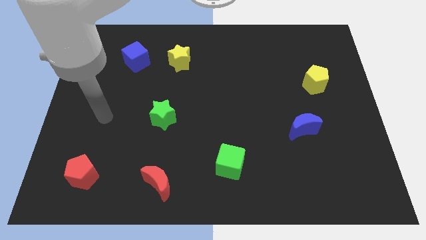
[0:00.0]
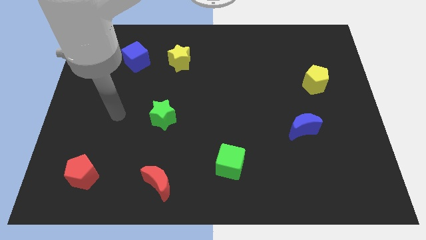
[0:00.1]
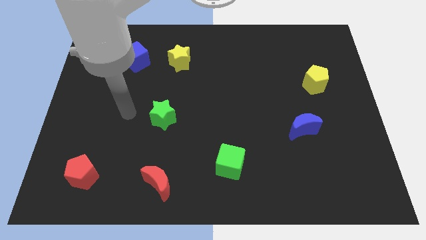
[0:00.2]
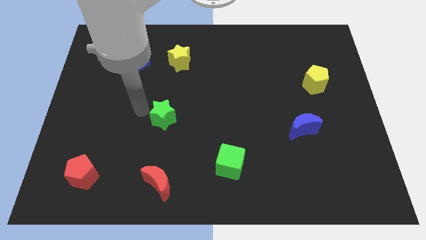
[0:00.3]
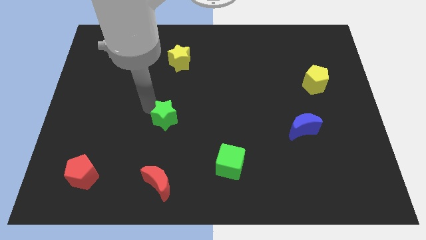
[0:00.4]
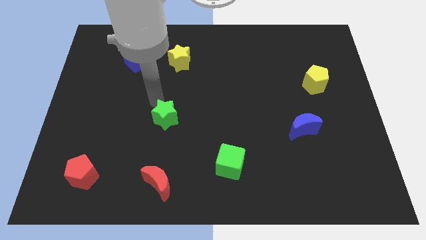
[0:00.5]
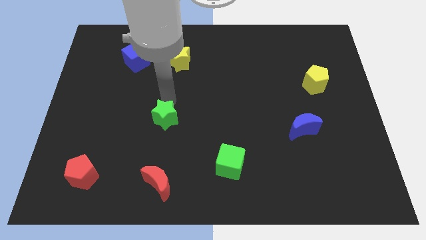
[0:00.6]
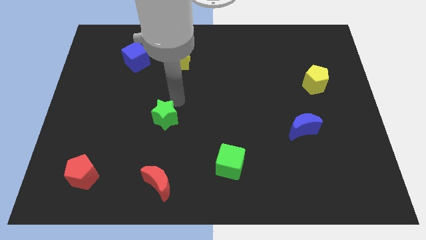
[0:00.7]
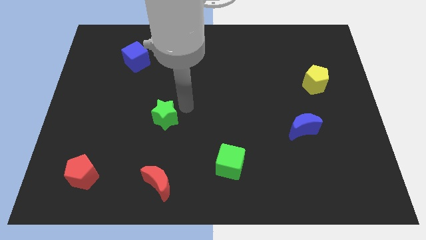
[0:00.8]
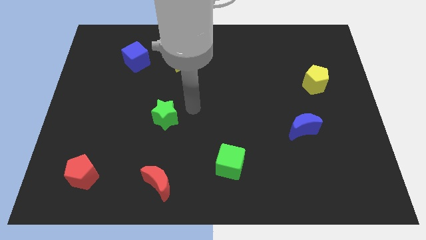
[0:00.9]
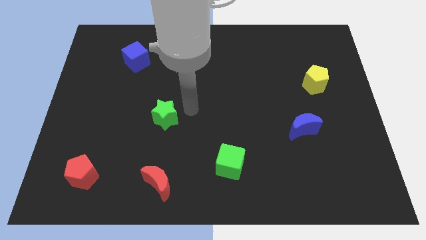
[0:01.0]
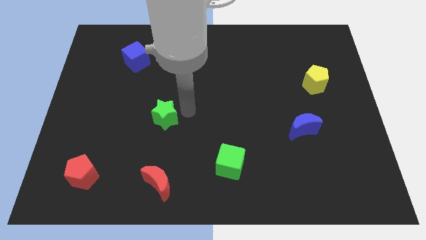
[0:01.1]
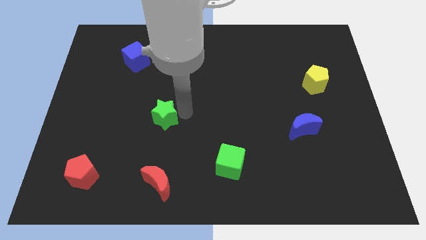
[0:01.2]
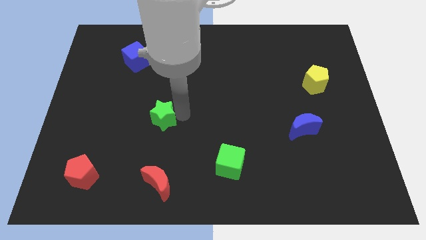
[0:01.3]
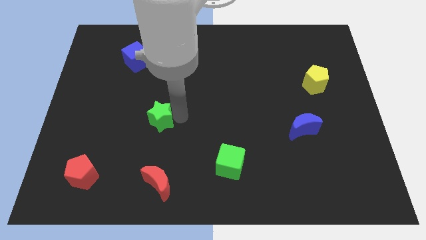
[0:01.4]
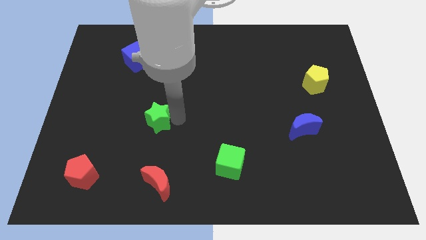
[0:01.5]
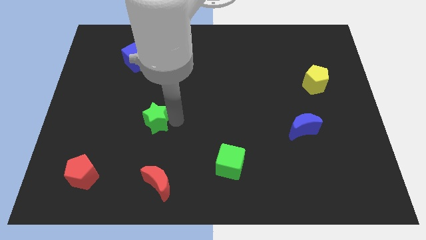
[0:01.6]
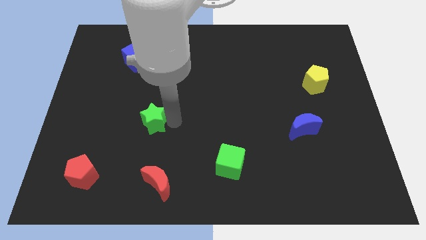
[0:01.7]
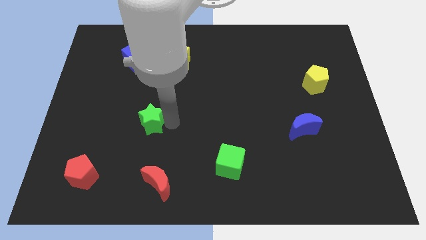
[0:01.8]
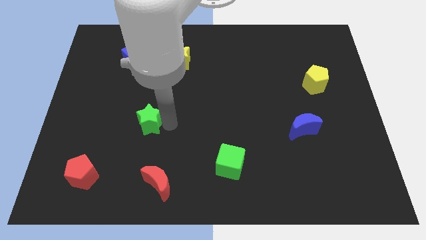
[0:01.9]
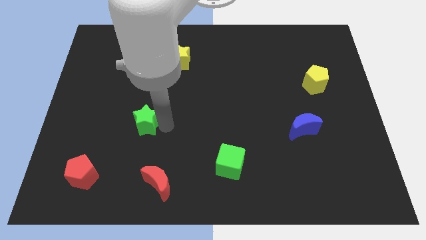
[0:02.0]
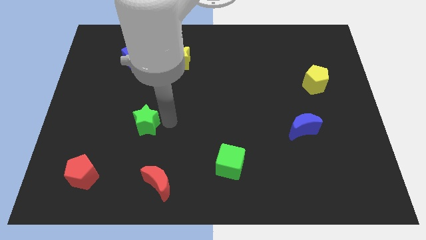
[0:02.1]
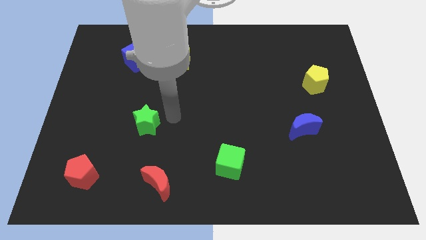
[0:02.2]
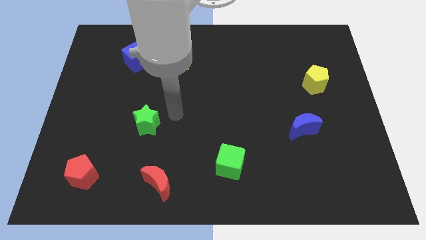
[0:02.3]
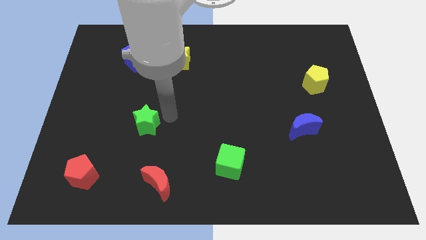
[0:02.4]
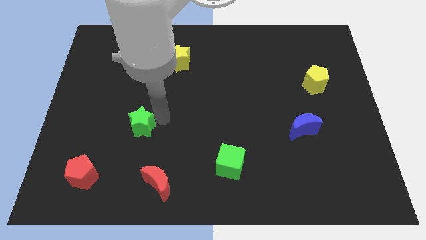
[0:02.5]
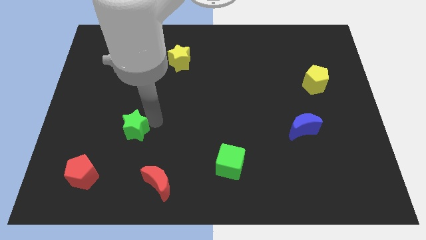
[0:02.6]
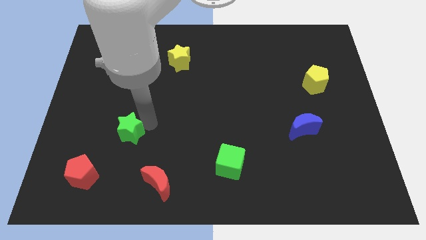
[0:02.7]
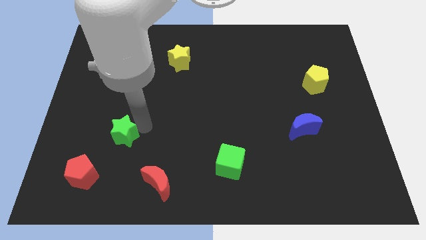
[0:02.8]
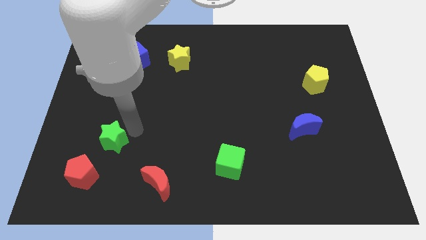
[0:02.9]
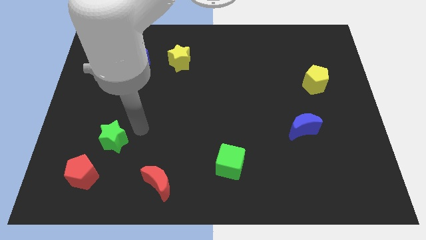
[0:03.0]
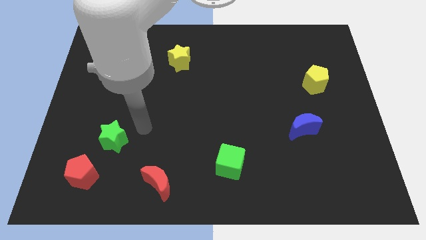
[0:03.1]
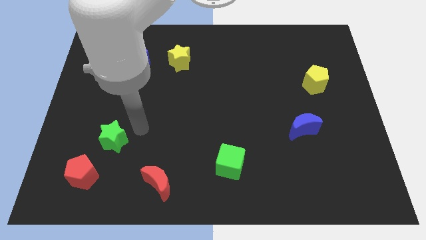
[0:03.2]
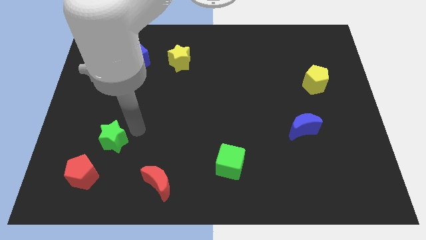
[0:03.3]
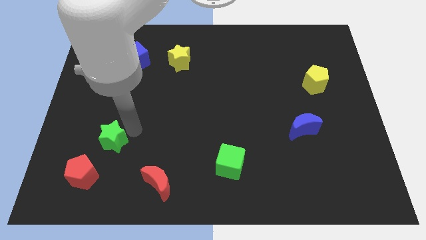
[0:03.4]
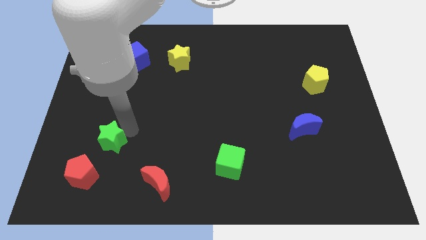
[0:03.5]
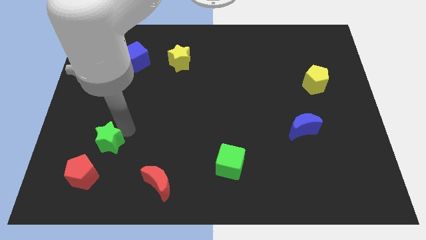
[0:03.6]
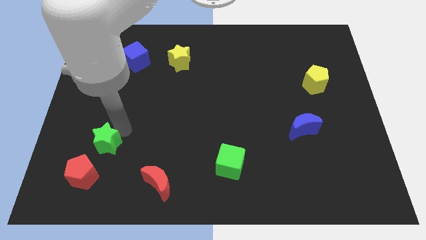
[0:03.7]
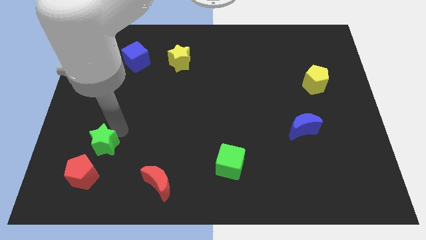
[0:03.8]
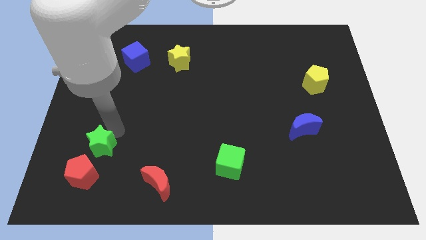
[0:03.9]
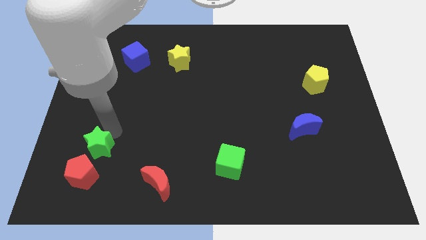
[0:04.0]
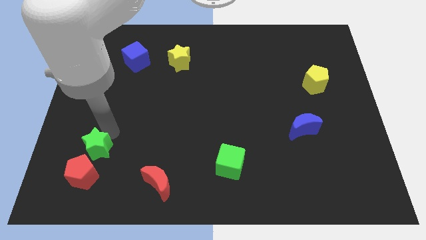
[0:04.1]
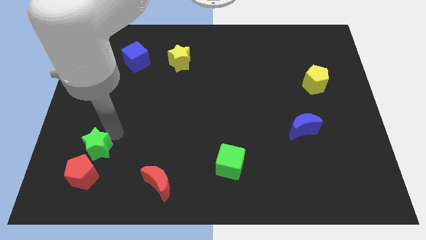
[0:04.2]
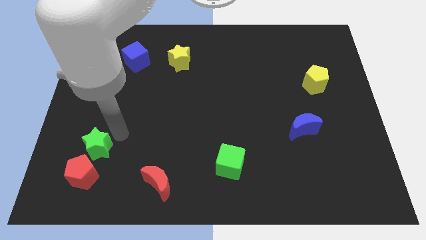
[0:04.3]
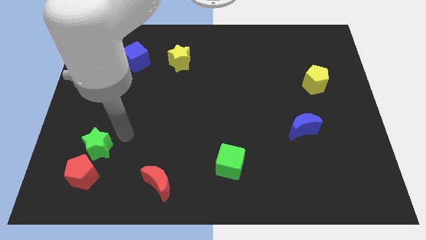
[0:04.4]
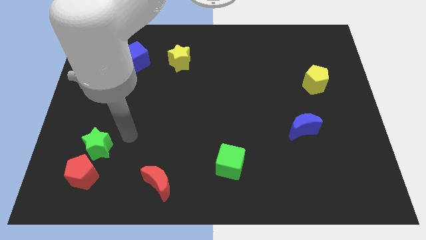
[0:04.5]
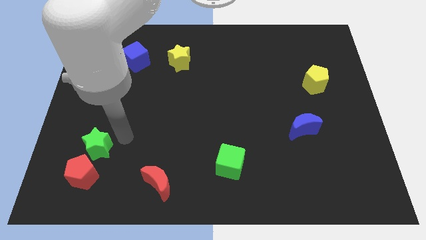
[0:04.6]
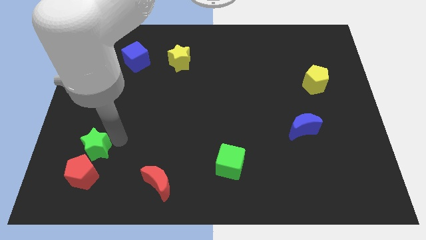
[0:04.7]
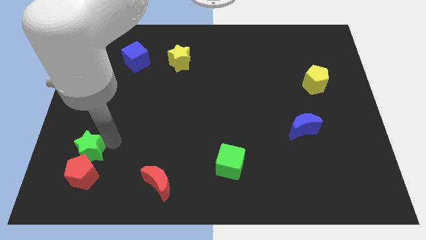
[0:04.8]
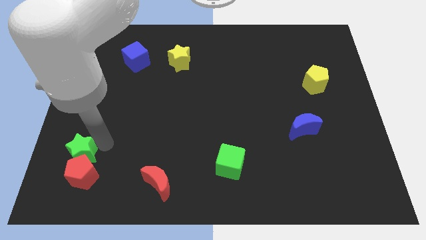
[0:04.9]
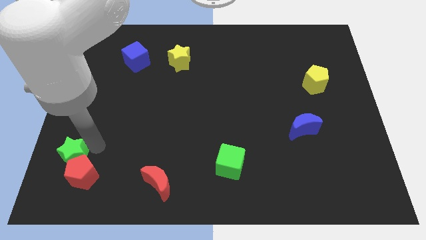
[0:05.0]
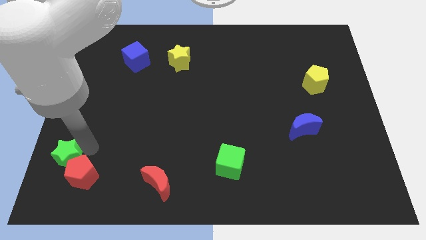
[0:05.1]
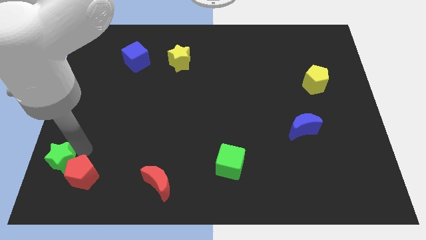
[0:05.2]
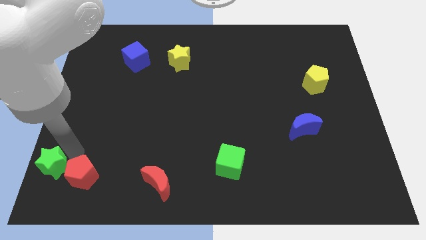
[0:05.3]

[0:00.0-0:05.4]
push the green star to the lower left corner
